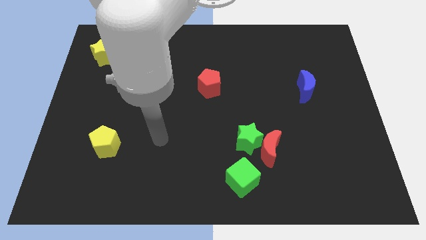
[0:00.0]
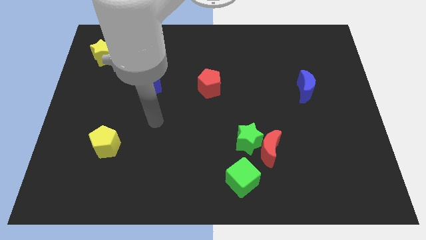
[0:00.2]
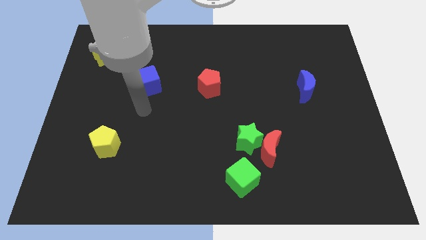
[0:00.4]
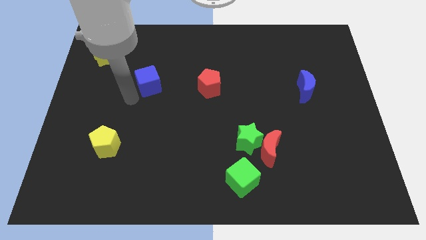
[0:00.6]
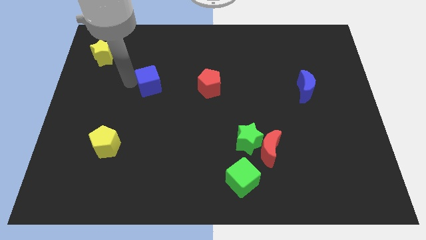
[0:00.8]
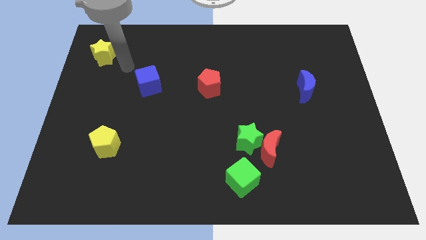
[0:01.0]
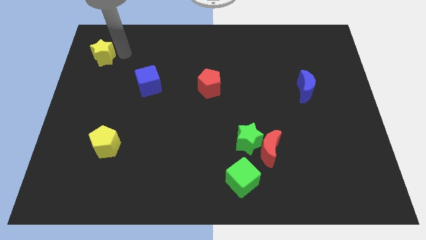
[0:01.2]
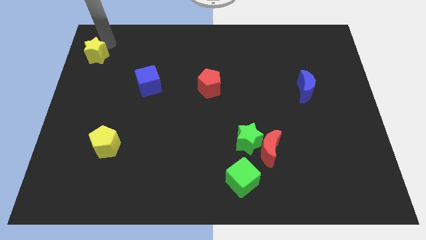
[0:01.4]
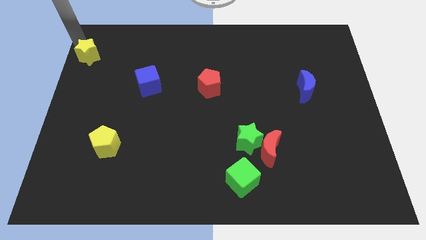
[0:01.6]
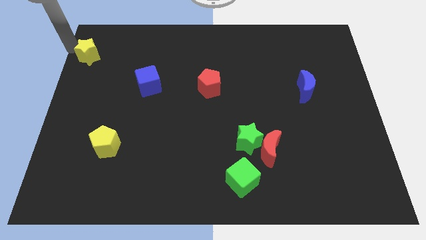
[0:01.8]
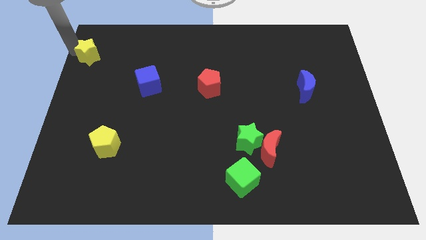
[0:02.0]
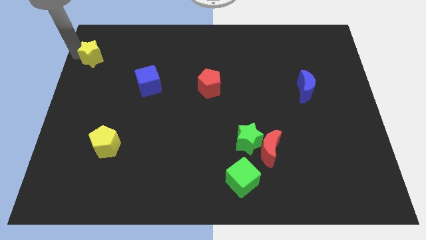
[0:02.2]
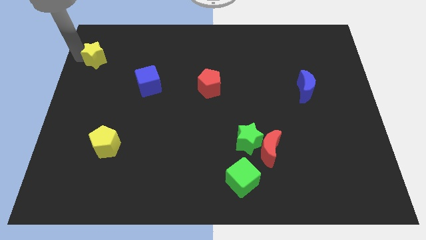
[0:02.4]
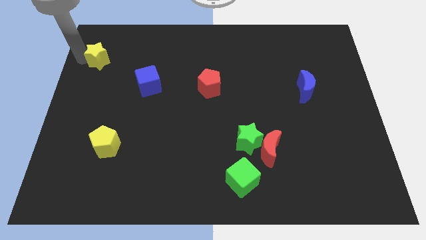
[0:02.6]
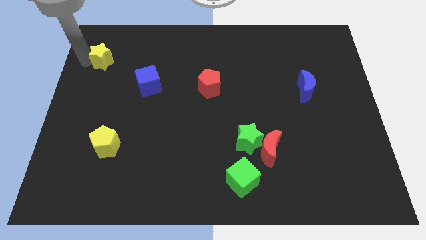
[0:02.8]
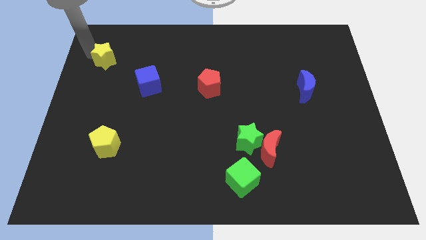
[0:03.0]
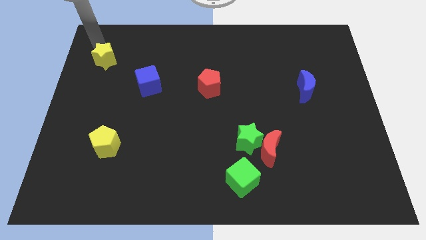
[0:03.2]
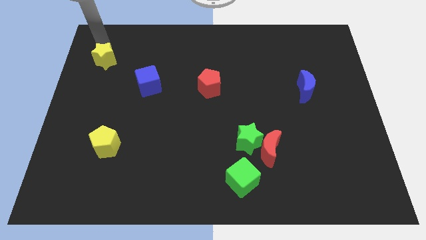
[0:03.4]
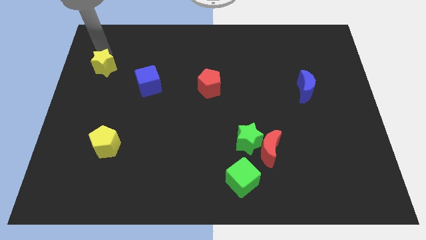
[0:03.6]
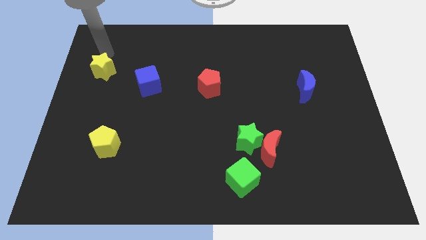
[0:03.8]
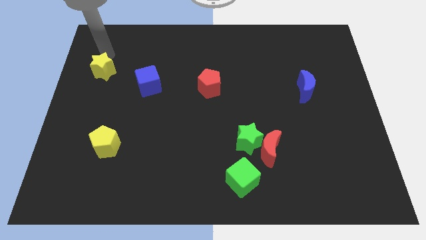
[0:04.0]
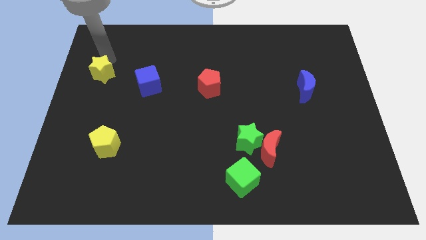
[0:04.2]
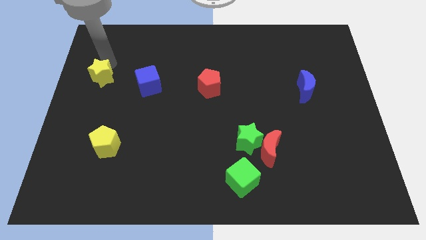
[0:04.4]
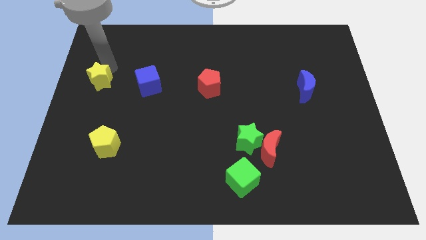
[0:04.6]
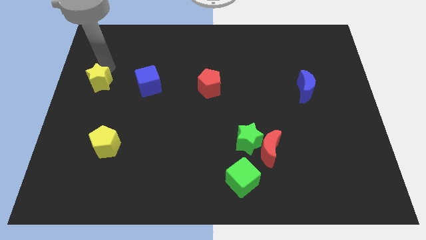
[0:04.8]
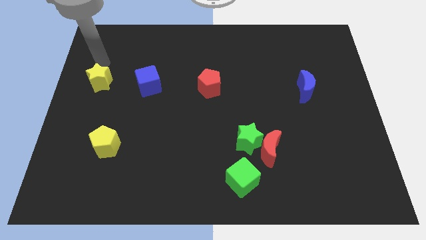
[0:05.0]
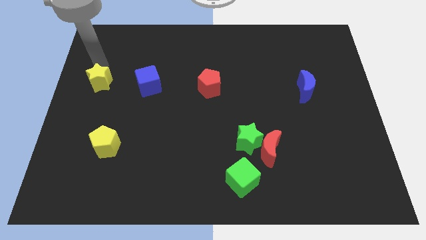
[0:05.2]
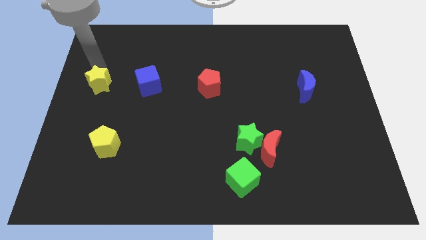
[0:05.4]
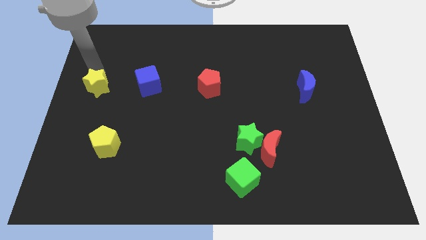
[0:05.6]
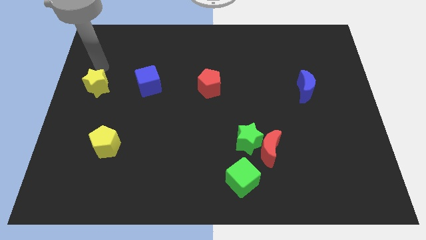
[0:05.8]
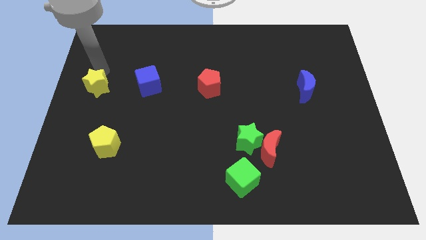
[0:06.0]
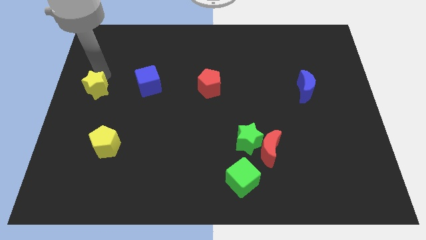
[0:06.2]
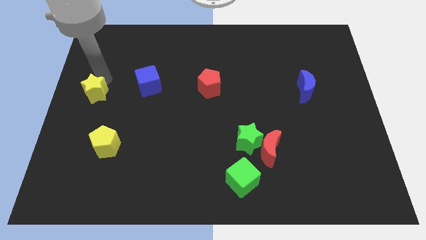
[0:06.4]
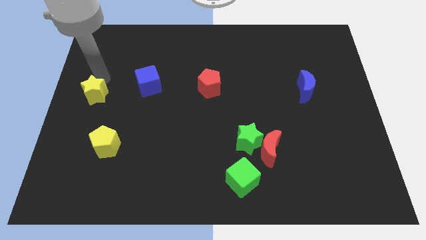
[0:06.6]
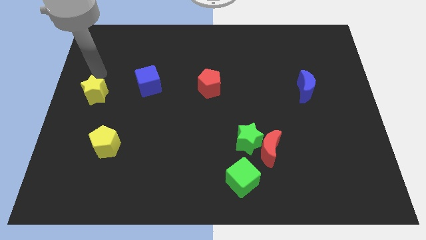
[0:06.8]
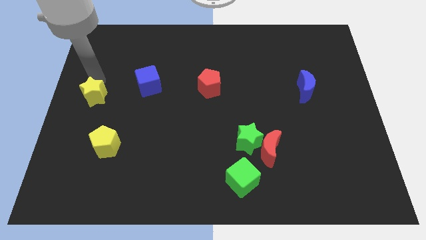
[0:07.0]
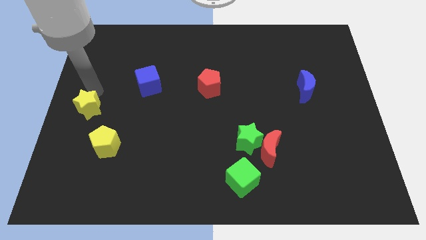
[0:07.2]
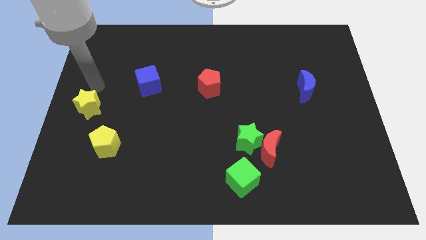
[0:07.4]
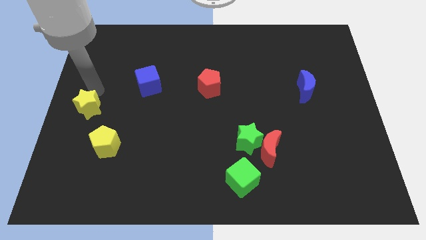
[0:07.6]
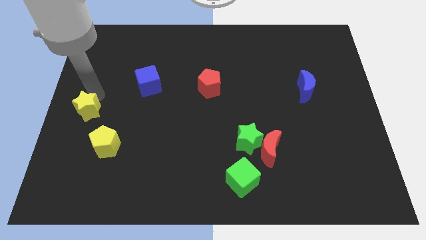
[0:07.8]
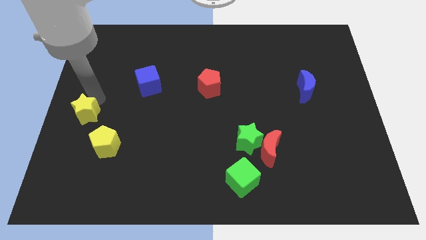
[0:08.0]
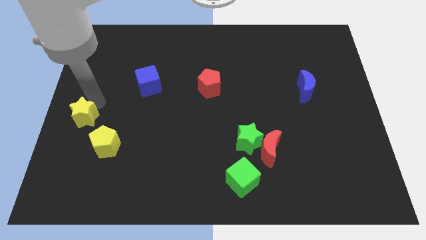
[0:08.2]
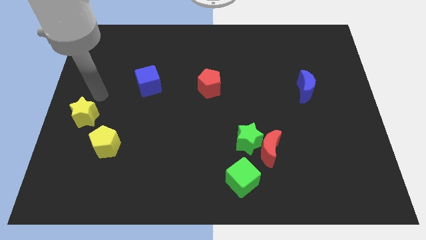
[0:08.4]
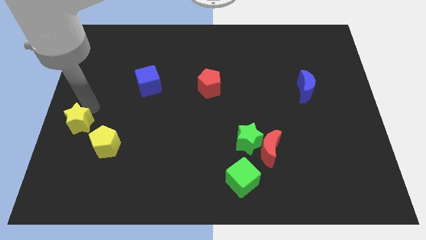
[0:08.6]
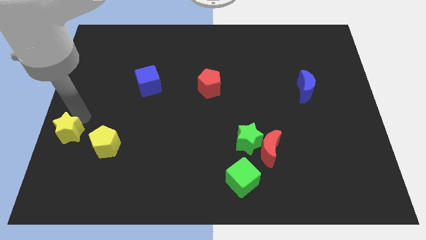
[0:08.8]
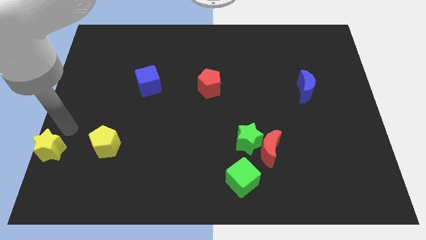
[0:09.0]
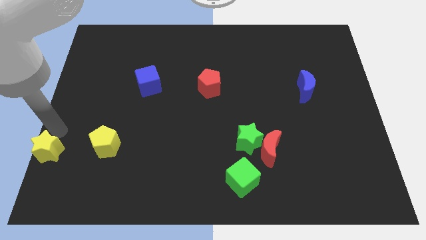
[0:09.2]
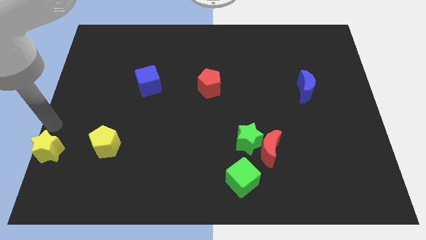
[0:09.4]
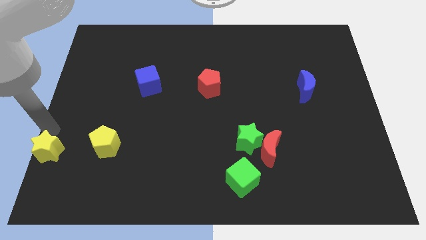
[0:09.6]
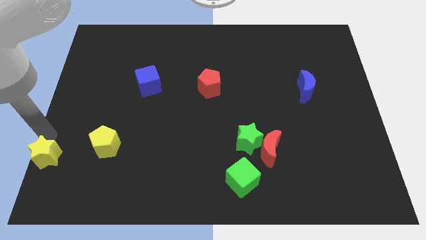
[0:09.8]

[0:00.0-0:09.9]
push the yellow star to the bottom left corner

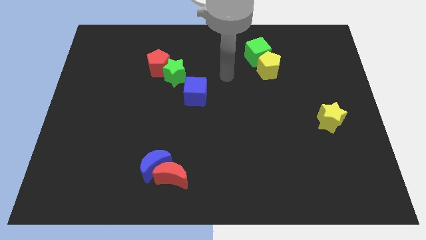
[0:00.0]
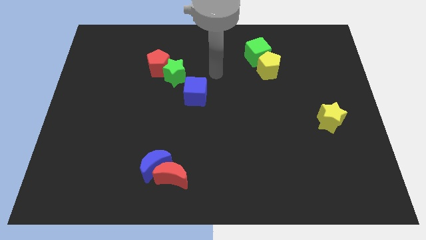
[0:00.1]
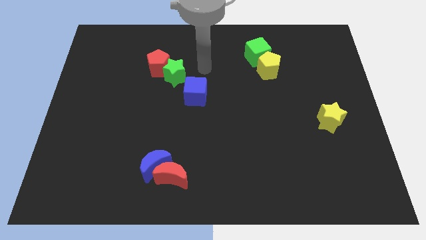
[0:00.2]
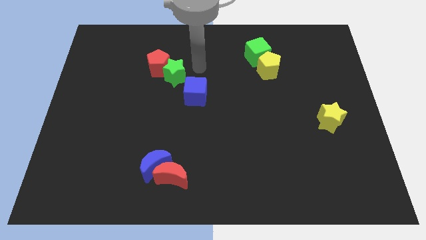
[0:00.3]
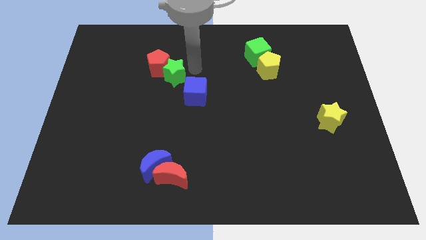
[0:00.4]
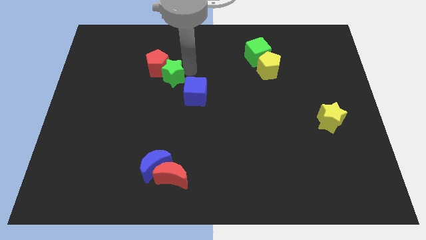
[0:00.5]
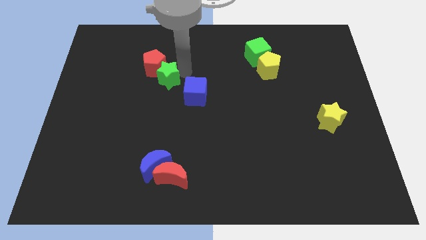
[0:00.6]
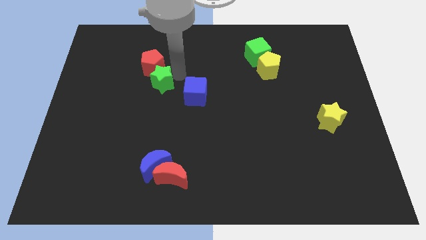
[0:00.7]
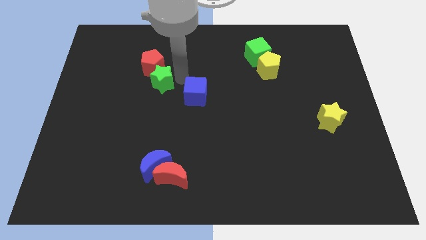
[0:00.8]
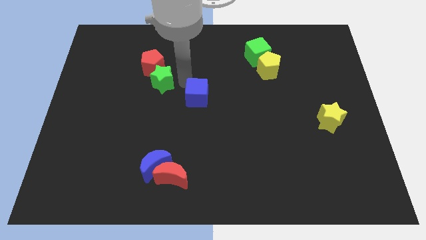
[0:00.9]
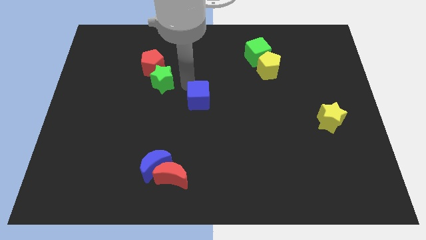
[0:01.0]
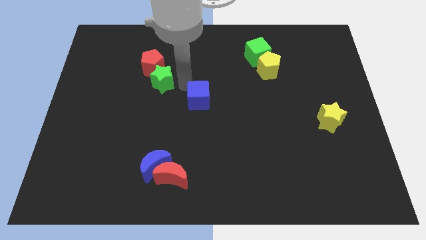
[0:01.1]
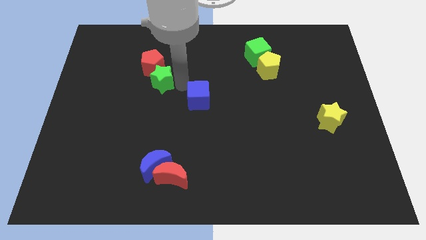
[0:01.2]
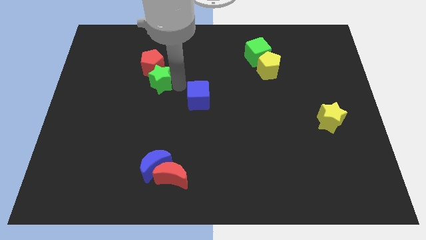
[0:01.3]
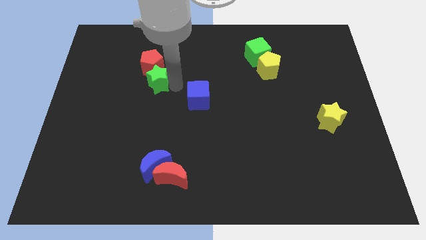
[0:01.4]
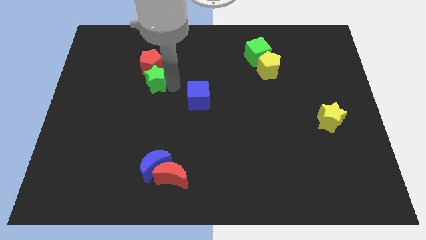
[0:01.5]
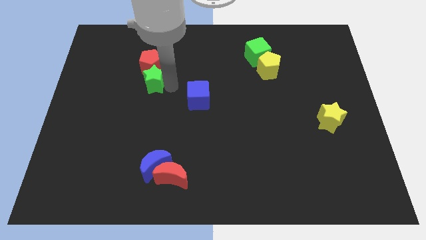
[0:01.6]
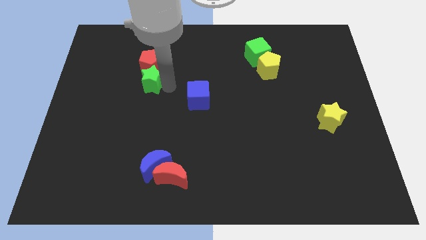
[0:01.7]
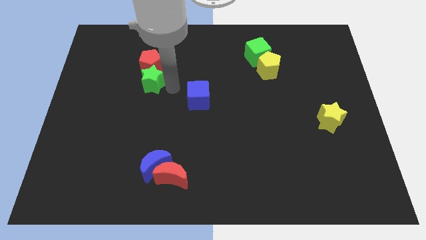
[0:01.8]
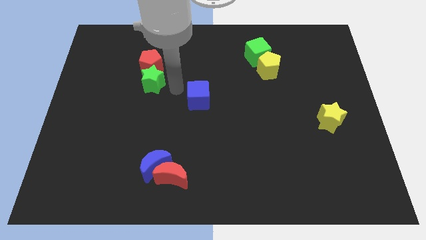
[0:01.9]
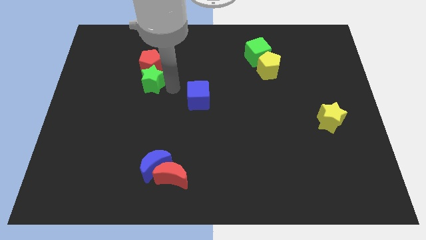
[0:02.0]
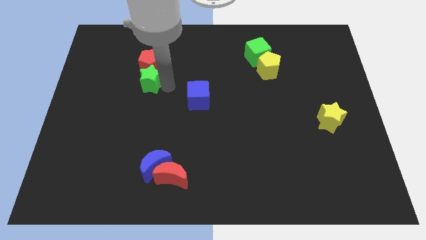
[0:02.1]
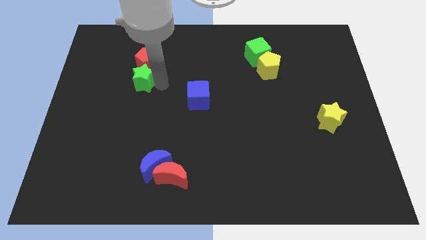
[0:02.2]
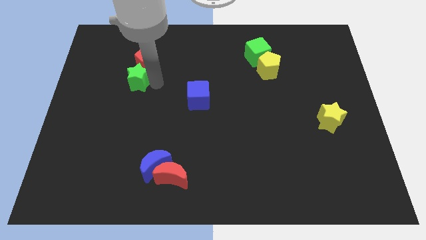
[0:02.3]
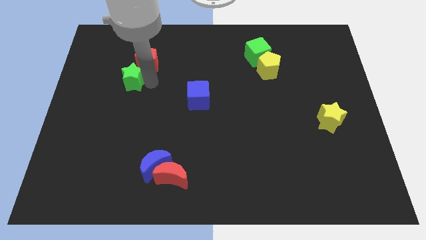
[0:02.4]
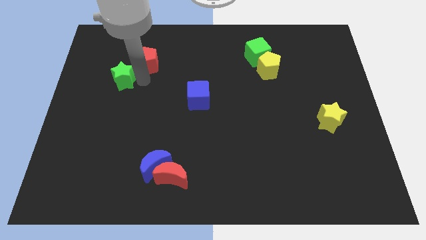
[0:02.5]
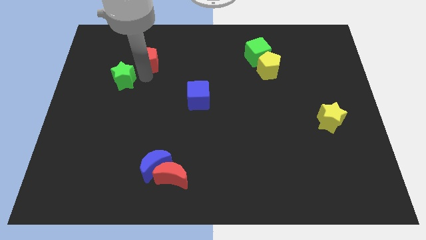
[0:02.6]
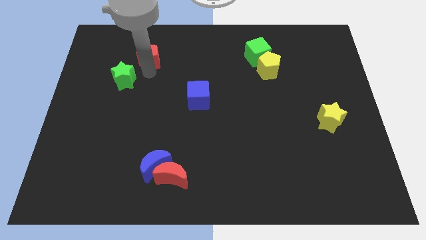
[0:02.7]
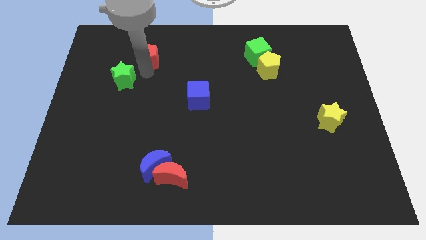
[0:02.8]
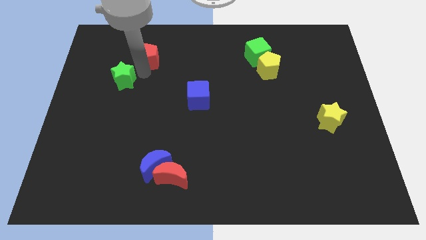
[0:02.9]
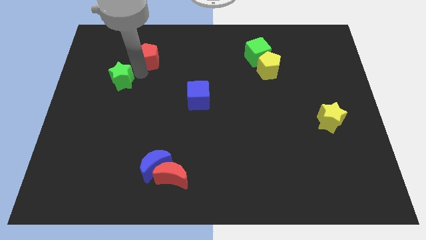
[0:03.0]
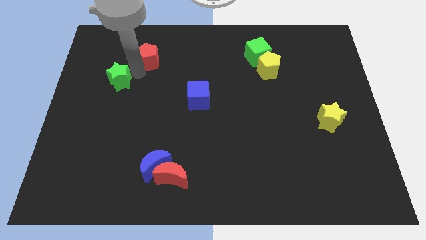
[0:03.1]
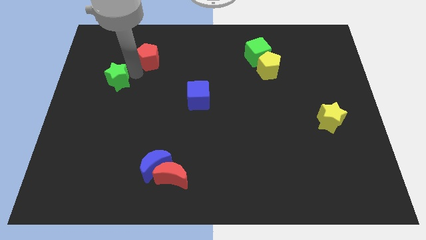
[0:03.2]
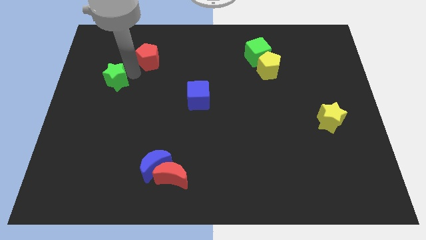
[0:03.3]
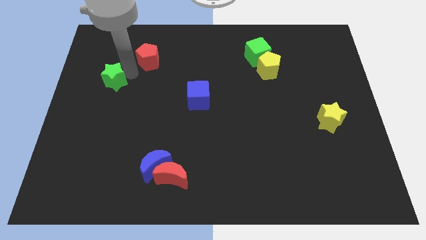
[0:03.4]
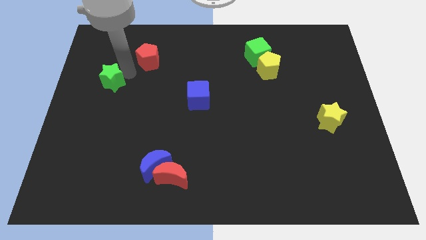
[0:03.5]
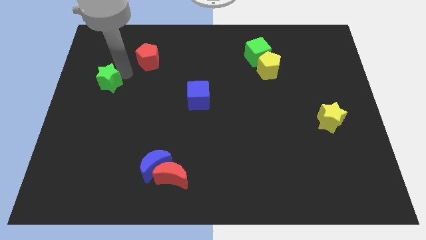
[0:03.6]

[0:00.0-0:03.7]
move the green star to the left side
